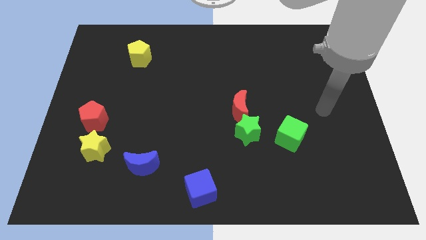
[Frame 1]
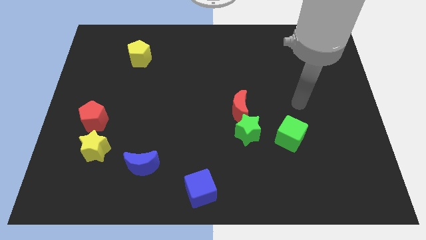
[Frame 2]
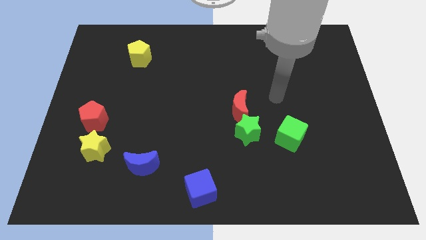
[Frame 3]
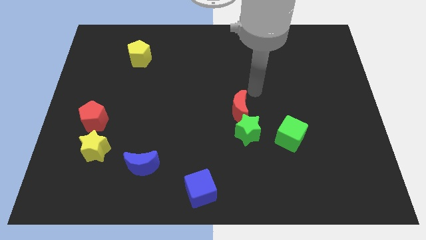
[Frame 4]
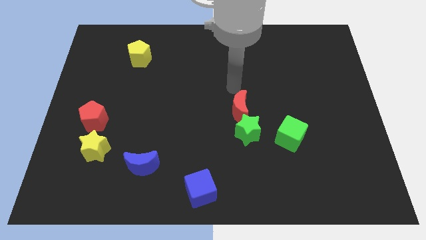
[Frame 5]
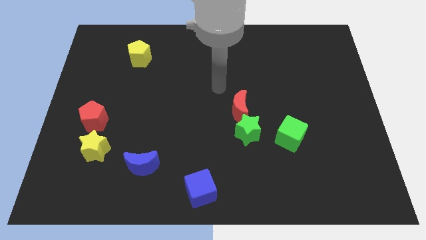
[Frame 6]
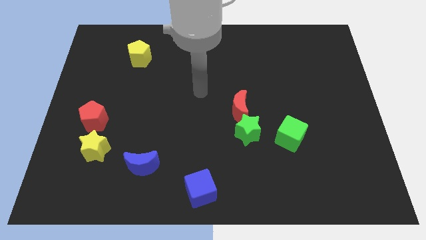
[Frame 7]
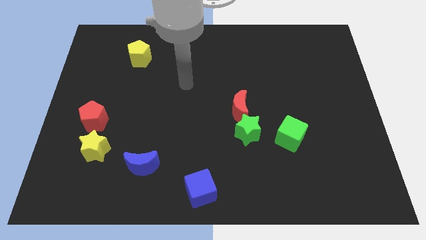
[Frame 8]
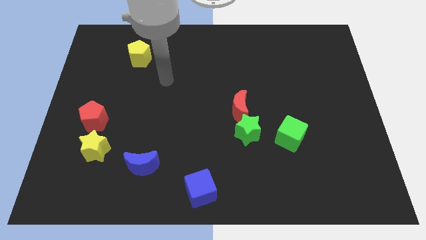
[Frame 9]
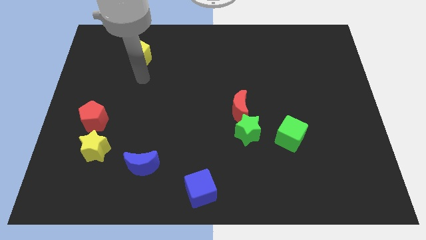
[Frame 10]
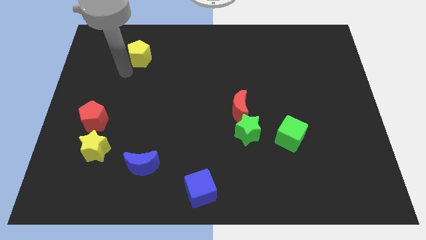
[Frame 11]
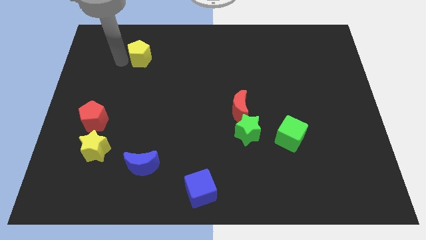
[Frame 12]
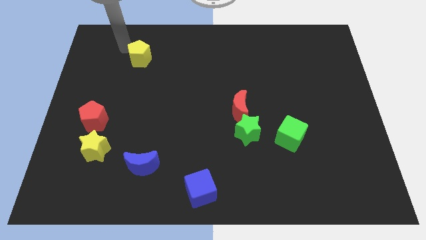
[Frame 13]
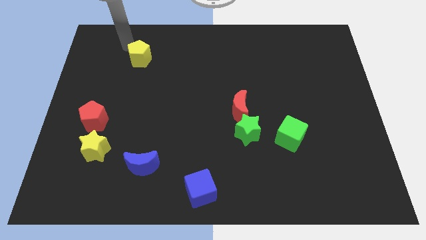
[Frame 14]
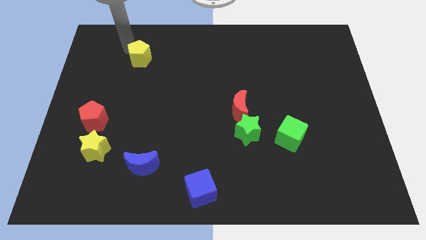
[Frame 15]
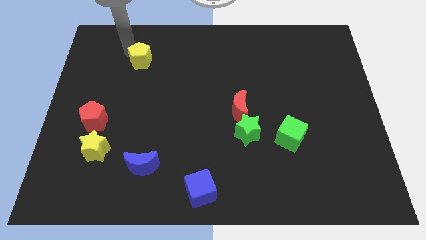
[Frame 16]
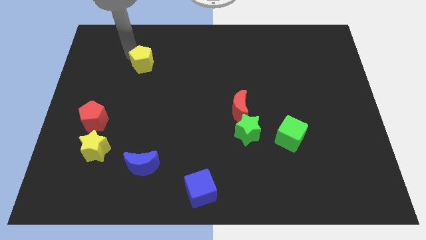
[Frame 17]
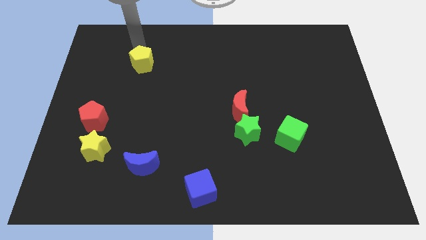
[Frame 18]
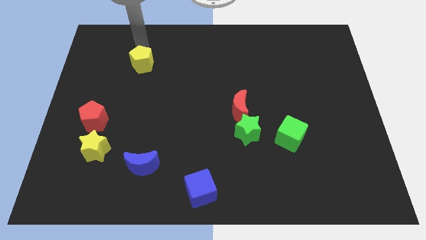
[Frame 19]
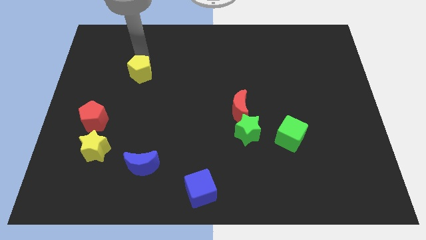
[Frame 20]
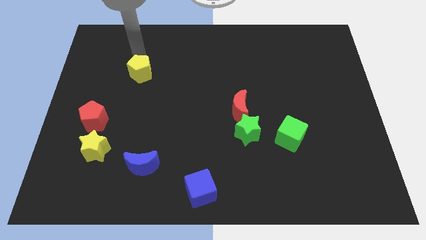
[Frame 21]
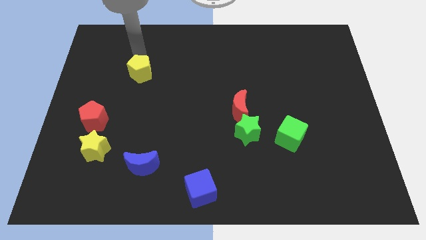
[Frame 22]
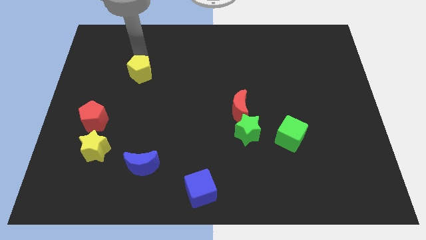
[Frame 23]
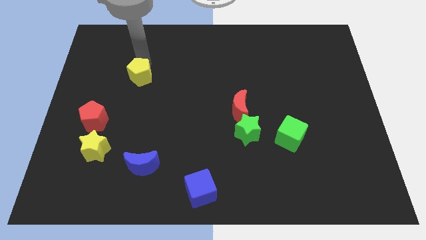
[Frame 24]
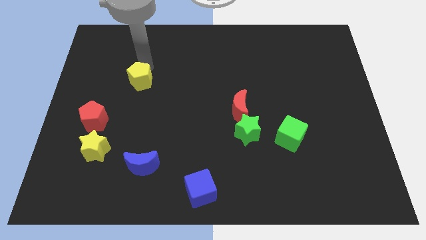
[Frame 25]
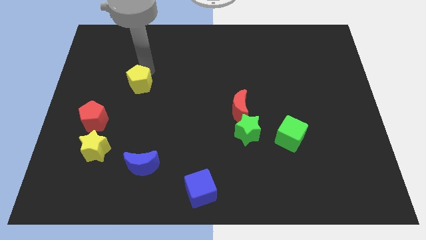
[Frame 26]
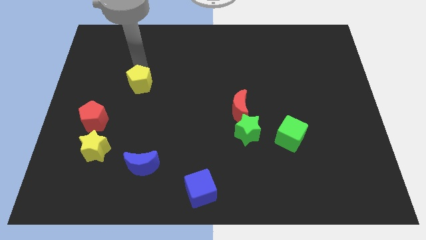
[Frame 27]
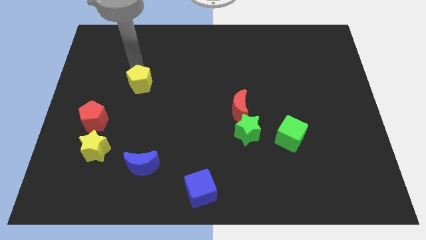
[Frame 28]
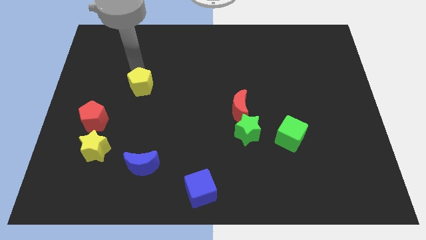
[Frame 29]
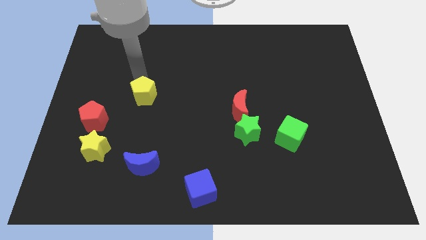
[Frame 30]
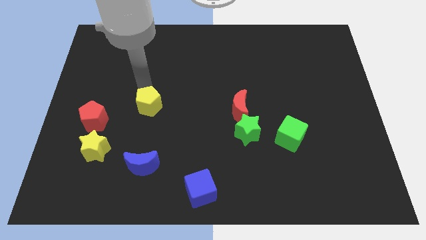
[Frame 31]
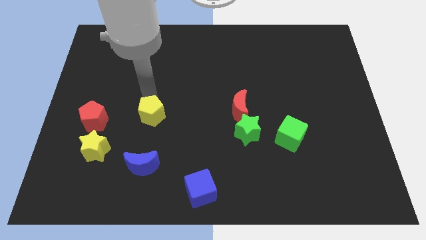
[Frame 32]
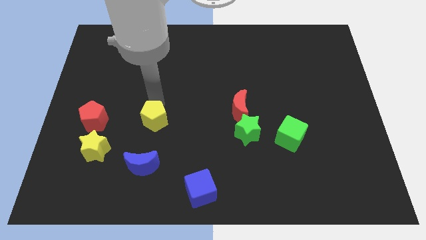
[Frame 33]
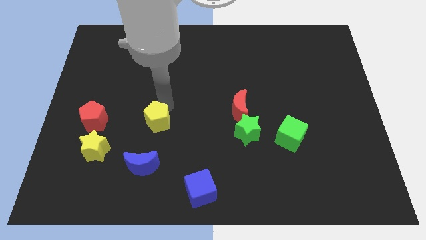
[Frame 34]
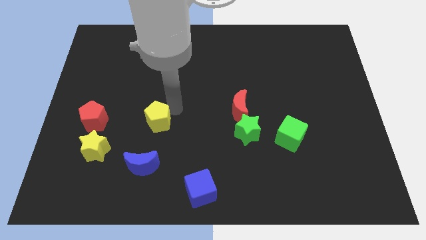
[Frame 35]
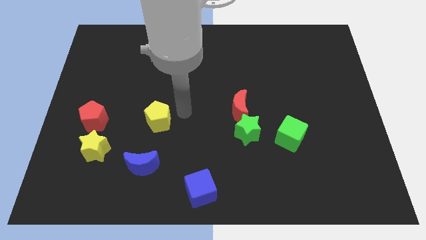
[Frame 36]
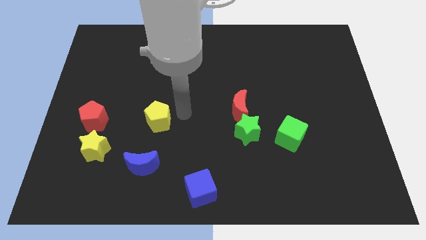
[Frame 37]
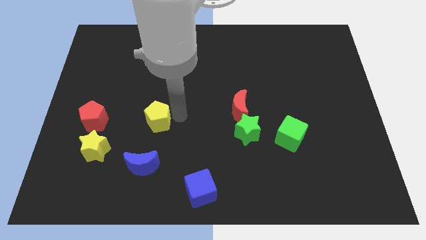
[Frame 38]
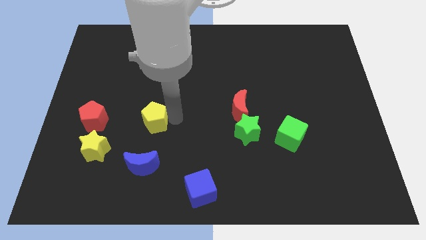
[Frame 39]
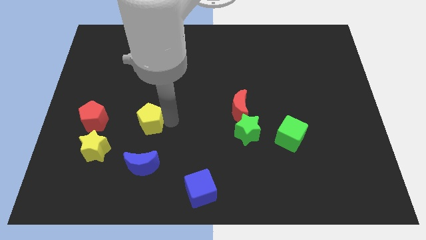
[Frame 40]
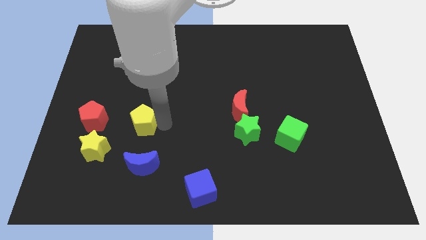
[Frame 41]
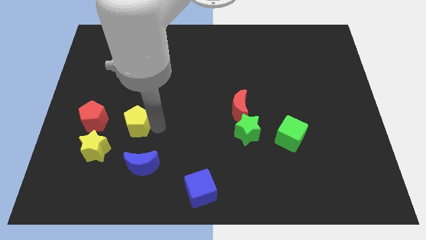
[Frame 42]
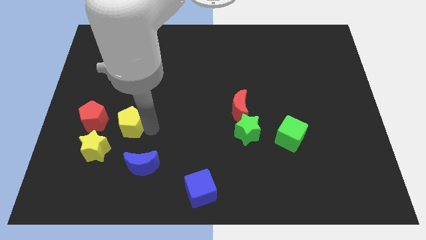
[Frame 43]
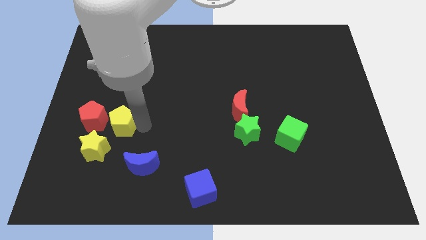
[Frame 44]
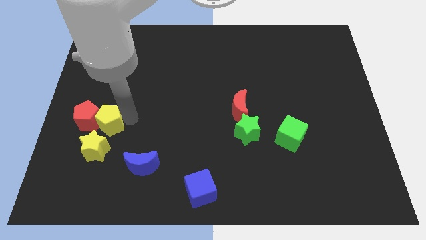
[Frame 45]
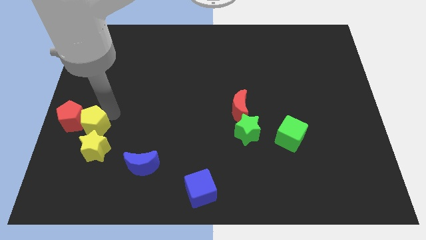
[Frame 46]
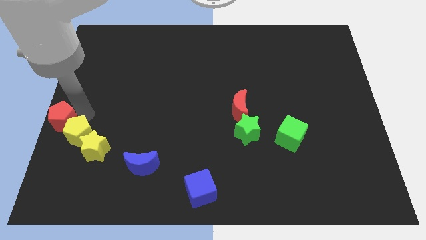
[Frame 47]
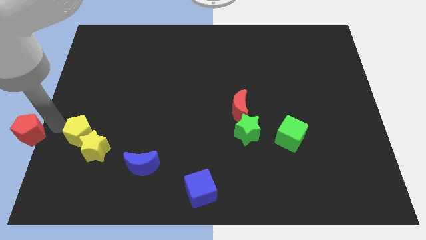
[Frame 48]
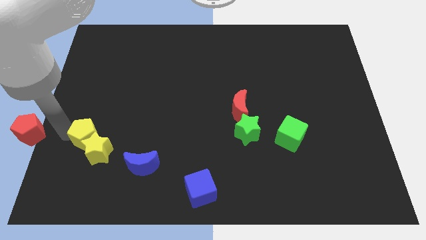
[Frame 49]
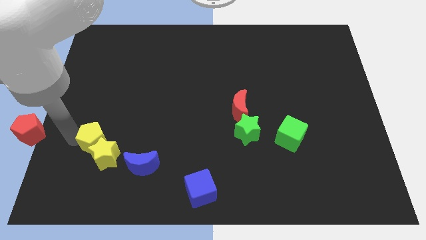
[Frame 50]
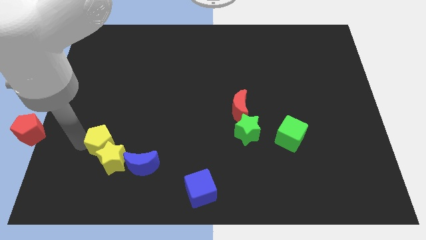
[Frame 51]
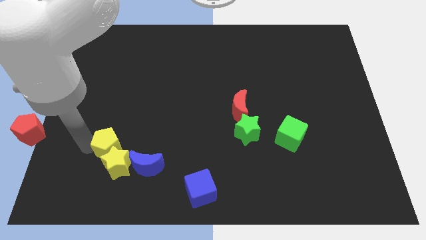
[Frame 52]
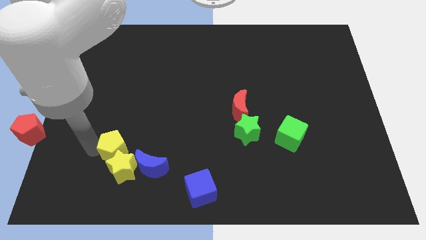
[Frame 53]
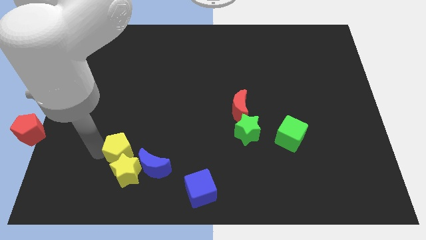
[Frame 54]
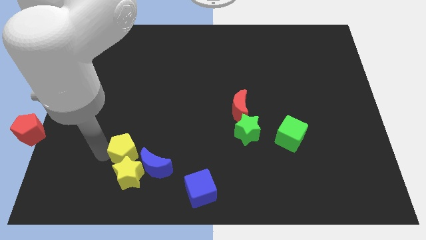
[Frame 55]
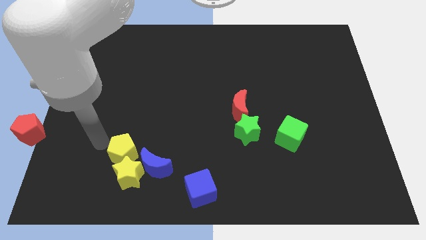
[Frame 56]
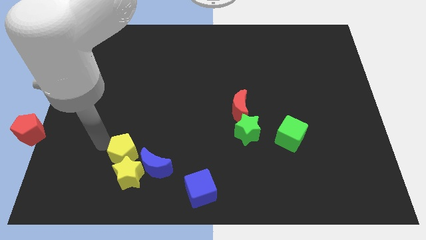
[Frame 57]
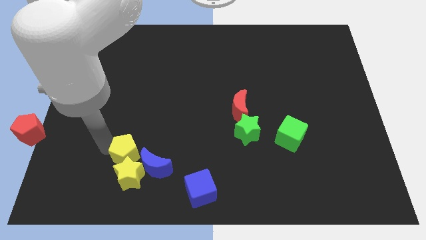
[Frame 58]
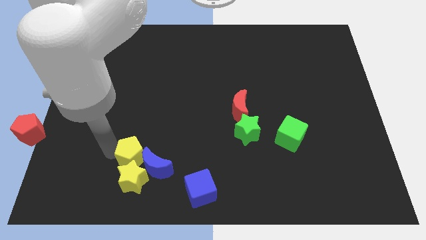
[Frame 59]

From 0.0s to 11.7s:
push the yellow pentagon next to the blue moon

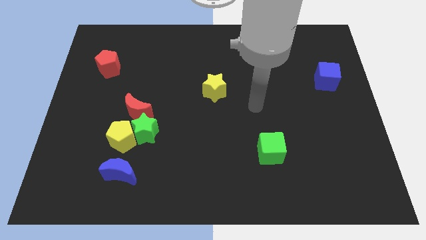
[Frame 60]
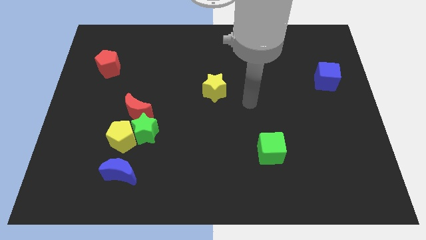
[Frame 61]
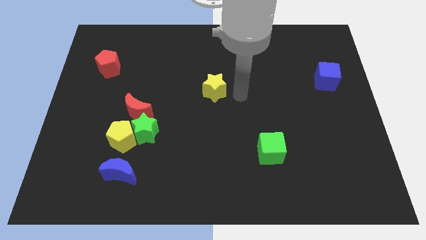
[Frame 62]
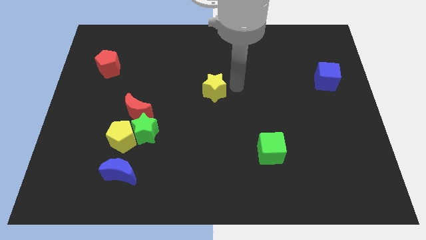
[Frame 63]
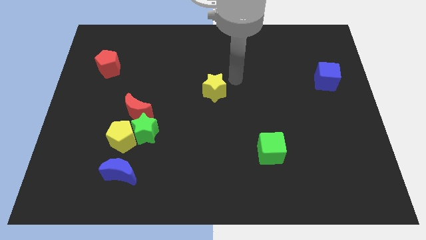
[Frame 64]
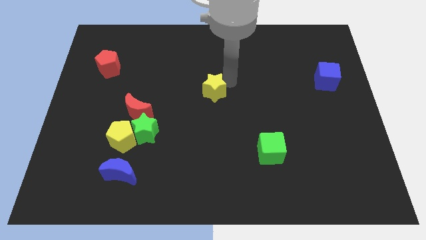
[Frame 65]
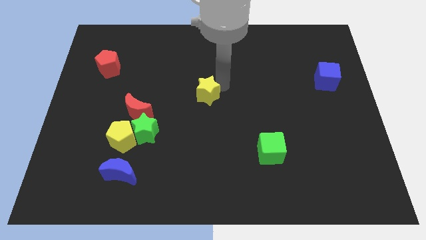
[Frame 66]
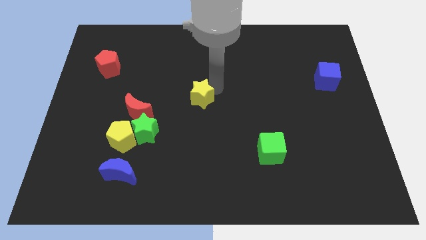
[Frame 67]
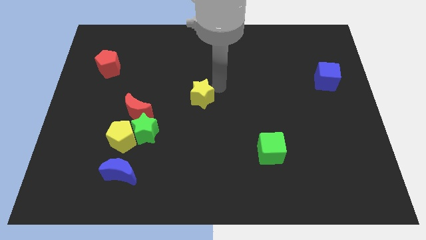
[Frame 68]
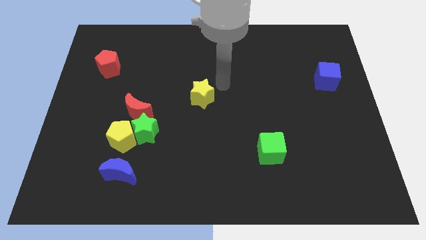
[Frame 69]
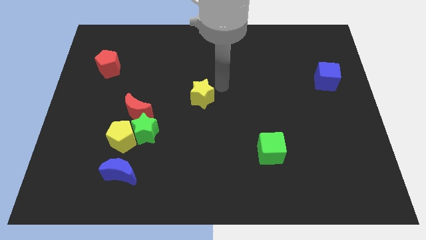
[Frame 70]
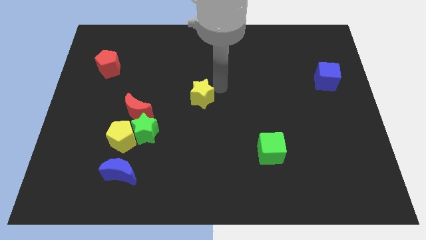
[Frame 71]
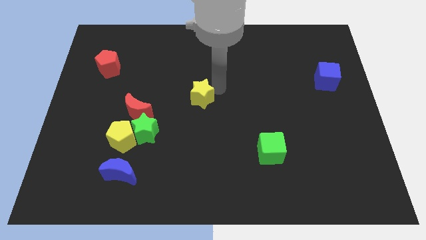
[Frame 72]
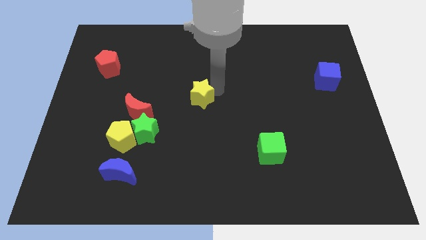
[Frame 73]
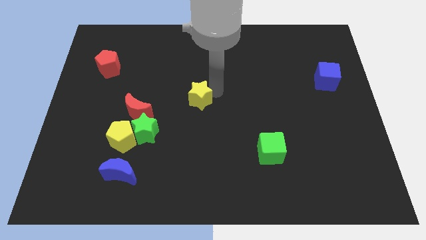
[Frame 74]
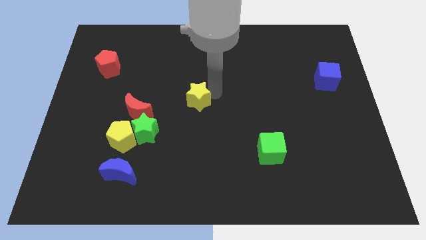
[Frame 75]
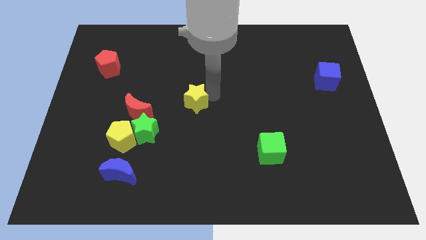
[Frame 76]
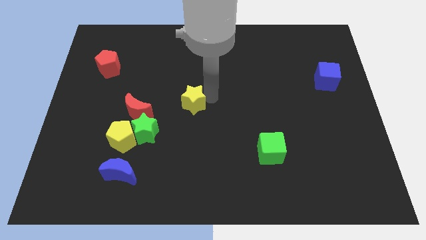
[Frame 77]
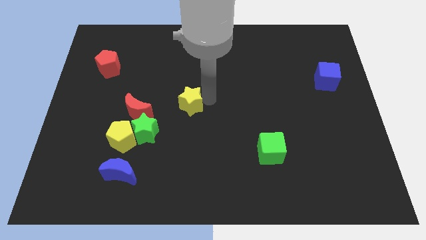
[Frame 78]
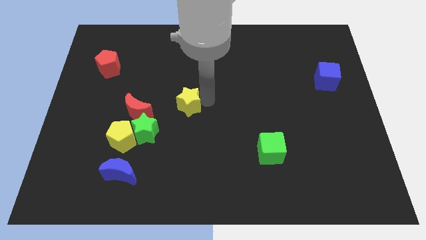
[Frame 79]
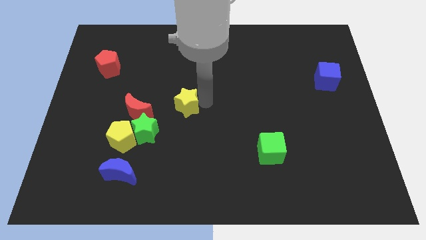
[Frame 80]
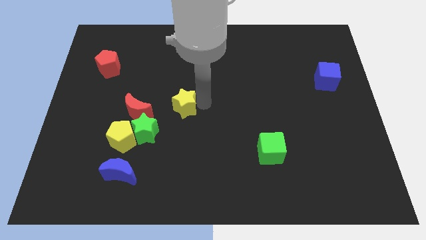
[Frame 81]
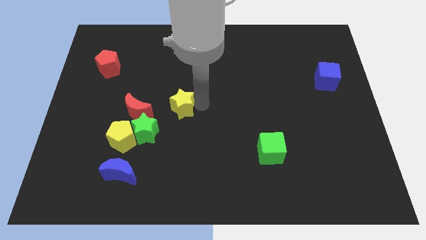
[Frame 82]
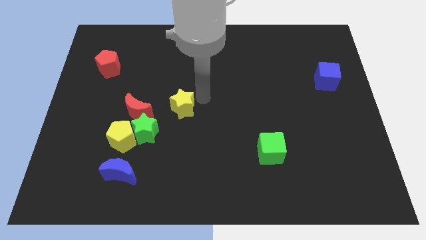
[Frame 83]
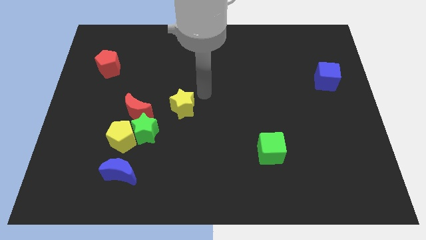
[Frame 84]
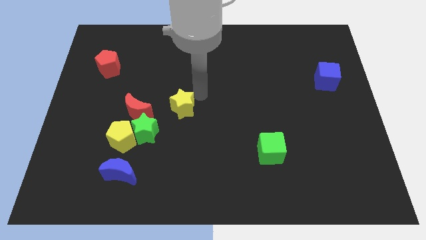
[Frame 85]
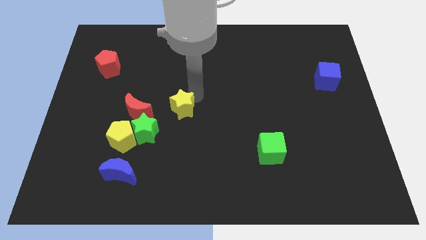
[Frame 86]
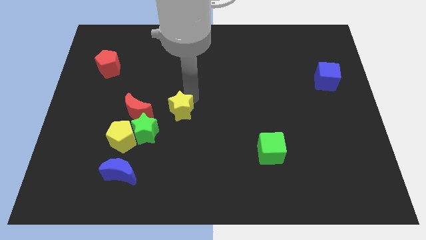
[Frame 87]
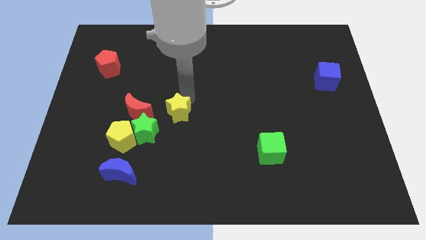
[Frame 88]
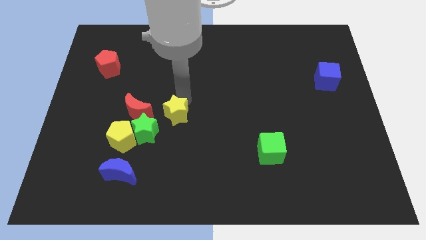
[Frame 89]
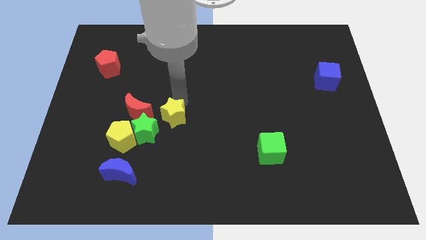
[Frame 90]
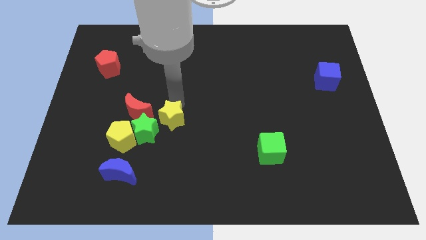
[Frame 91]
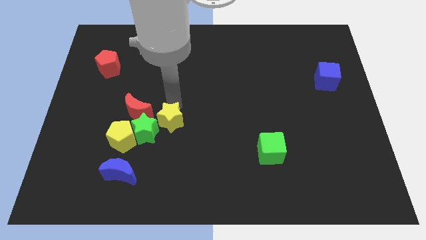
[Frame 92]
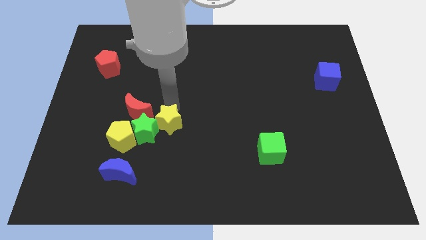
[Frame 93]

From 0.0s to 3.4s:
move the yellow star next to the green star
